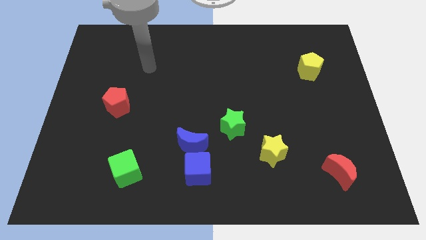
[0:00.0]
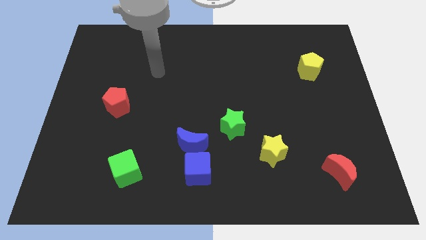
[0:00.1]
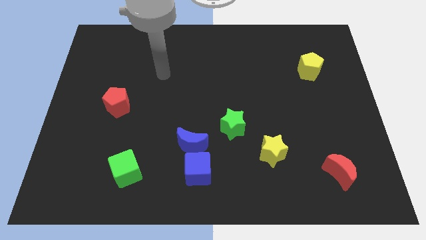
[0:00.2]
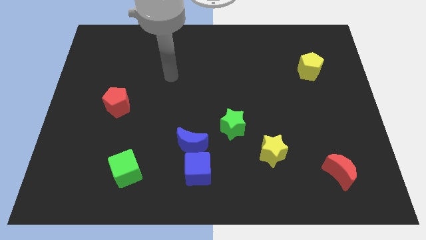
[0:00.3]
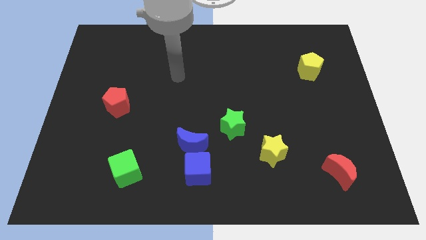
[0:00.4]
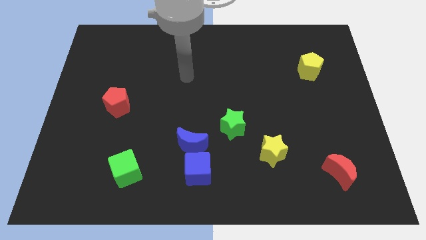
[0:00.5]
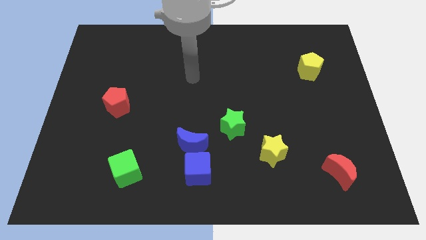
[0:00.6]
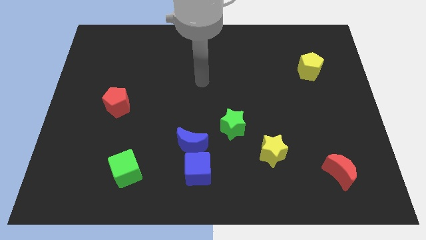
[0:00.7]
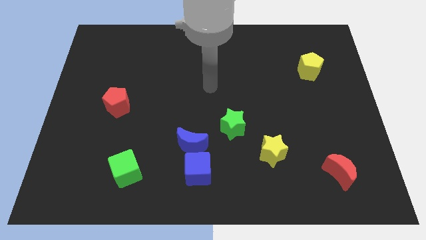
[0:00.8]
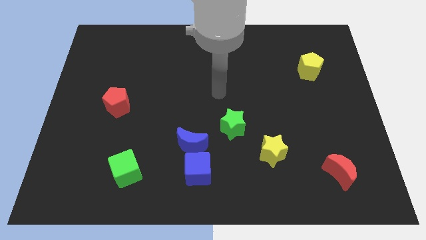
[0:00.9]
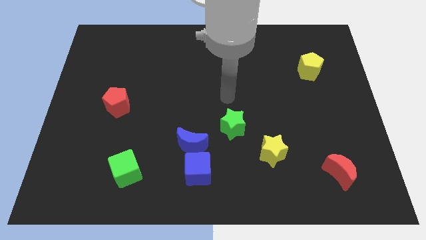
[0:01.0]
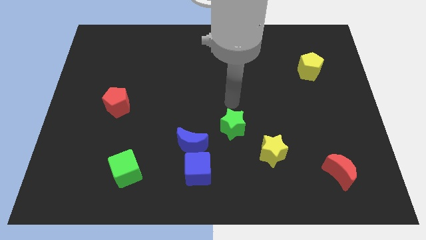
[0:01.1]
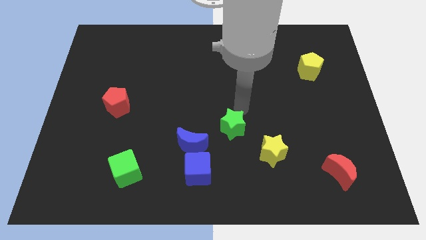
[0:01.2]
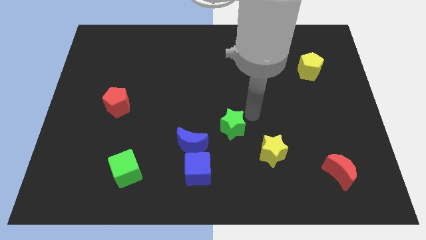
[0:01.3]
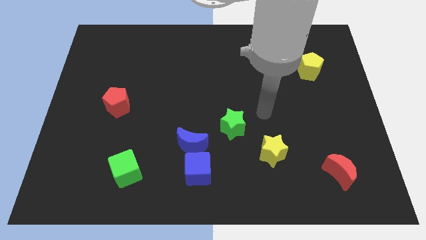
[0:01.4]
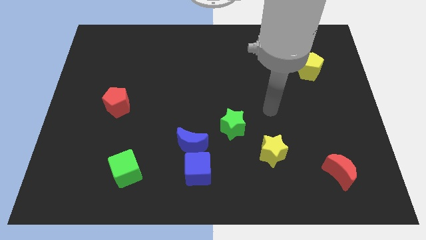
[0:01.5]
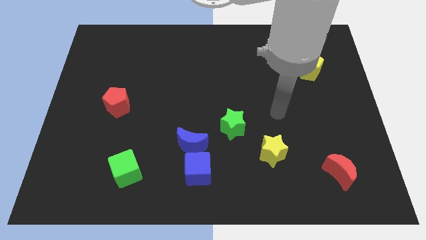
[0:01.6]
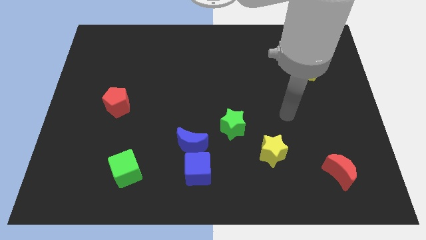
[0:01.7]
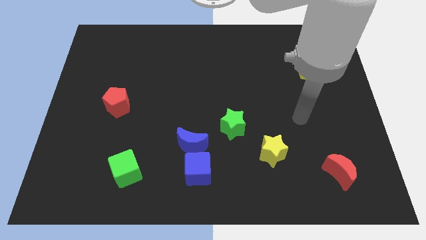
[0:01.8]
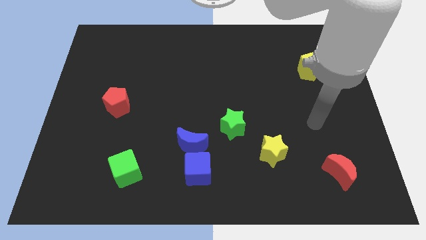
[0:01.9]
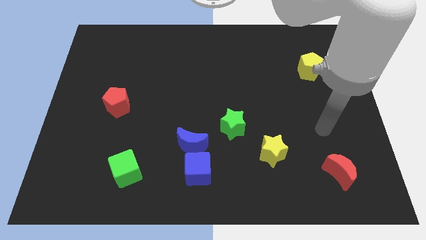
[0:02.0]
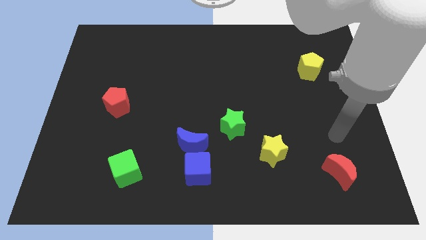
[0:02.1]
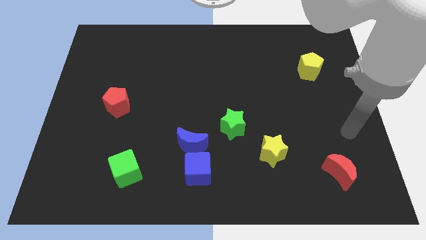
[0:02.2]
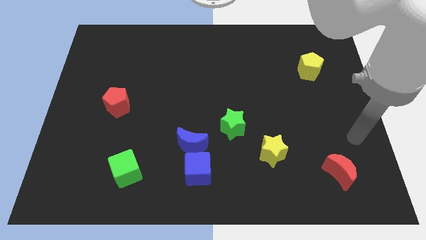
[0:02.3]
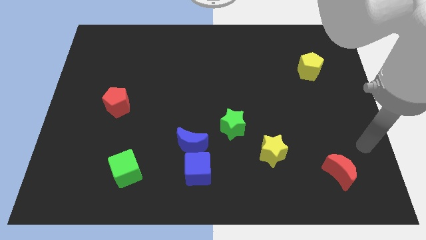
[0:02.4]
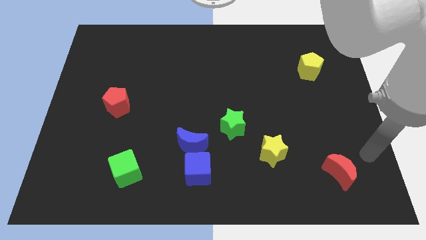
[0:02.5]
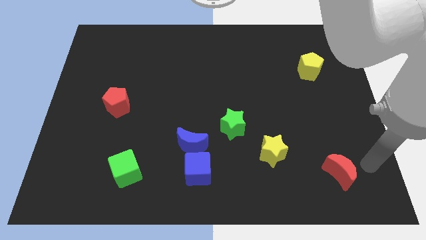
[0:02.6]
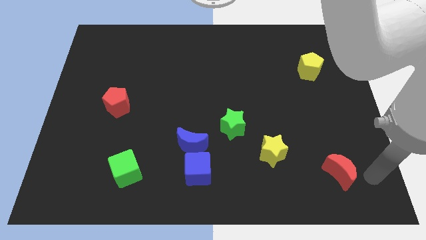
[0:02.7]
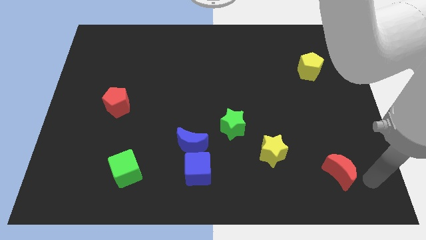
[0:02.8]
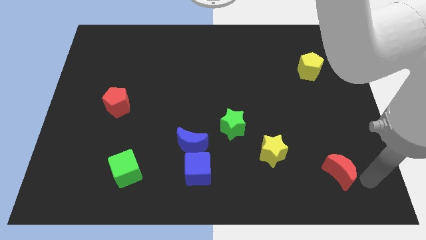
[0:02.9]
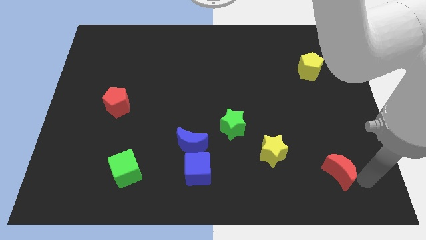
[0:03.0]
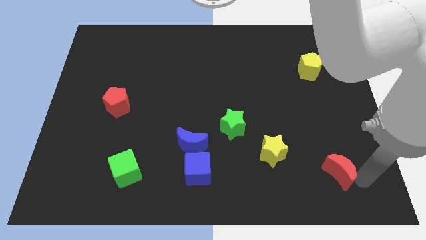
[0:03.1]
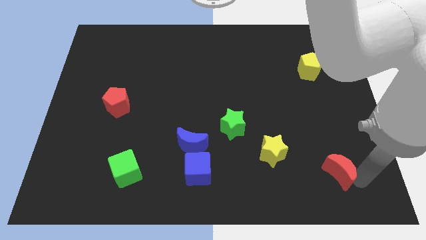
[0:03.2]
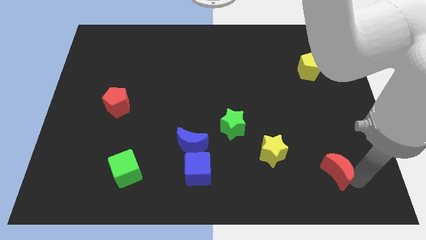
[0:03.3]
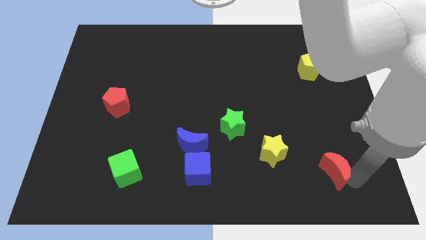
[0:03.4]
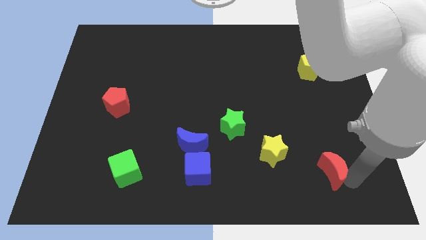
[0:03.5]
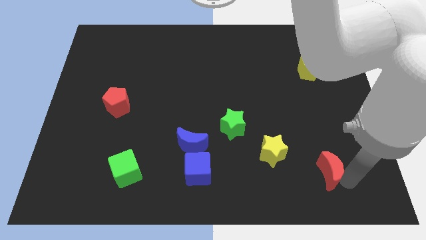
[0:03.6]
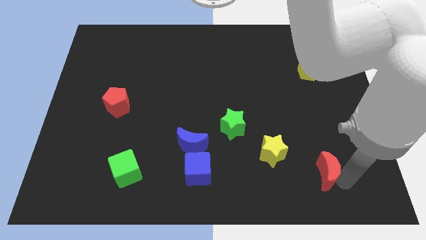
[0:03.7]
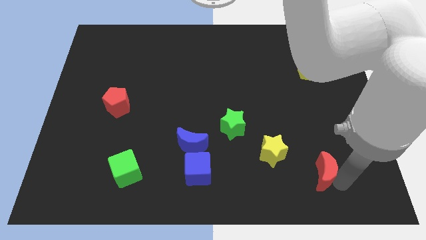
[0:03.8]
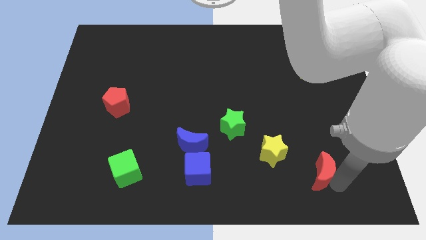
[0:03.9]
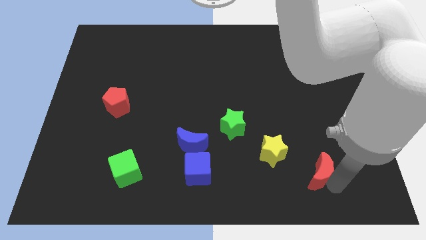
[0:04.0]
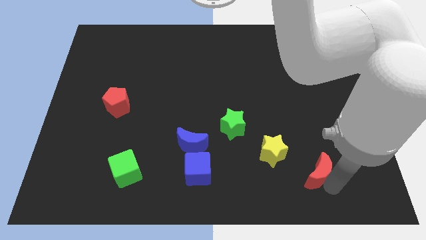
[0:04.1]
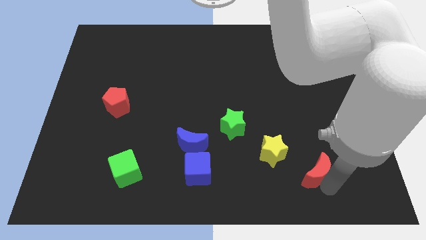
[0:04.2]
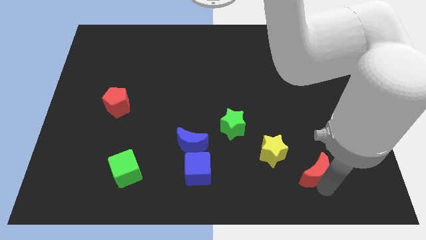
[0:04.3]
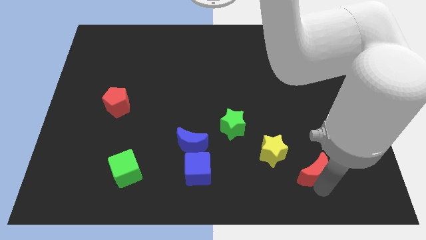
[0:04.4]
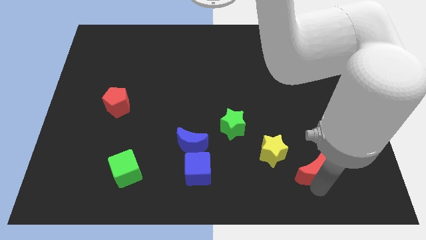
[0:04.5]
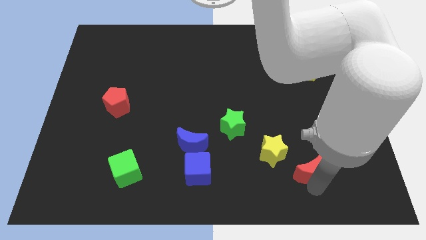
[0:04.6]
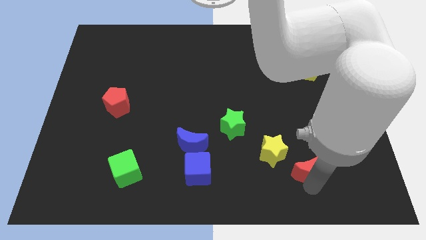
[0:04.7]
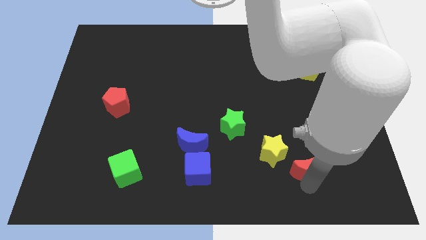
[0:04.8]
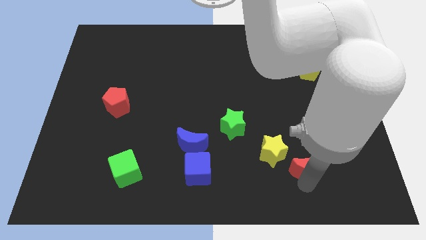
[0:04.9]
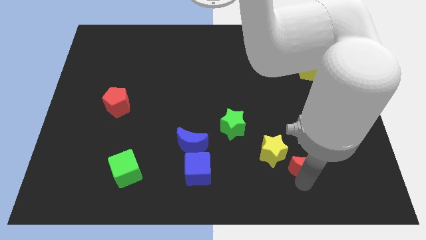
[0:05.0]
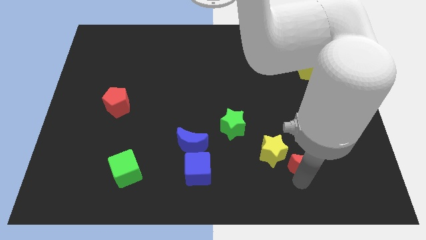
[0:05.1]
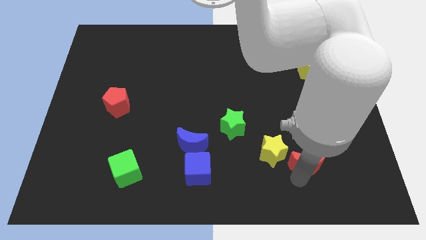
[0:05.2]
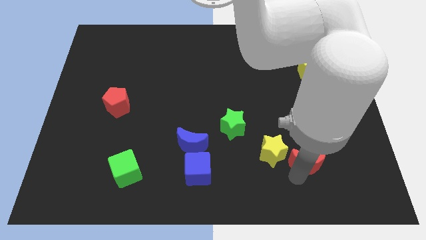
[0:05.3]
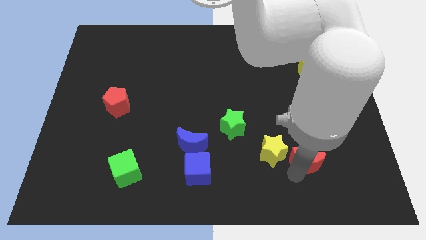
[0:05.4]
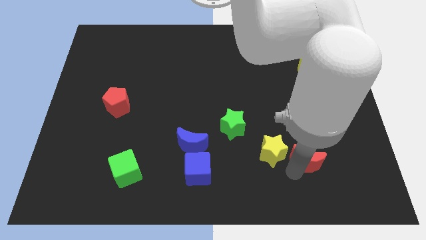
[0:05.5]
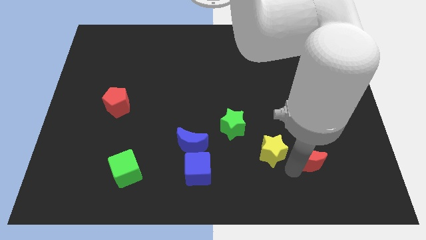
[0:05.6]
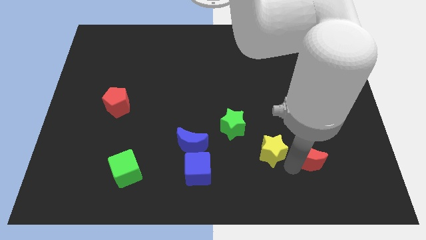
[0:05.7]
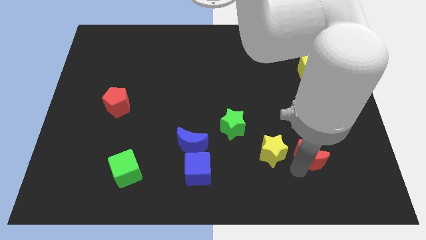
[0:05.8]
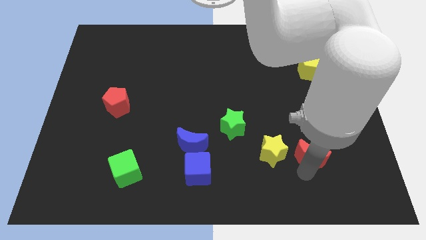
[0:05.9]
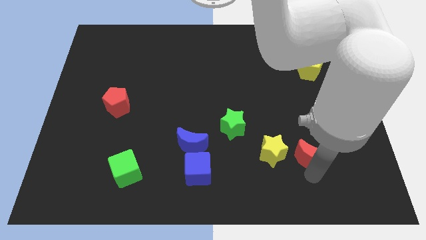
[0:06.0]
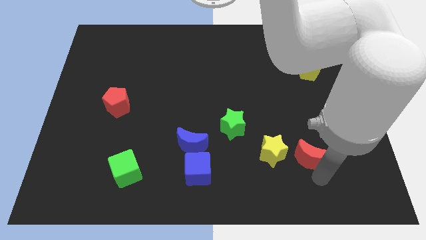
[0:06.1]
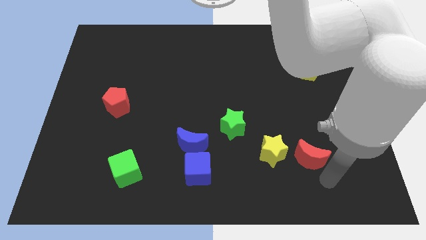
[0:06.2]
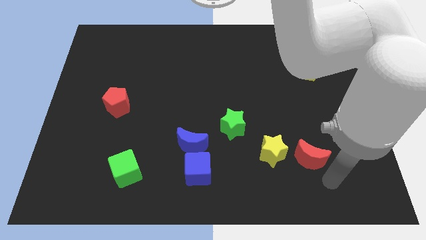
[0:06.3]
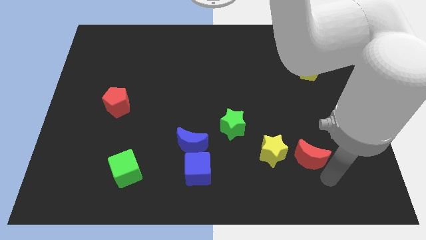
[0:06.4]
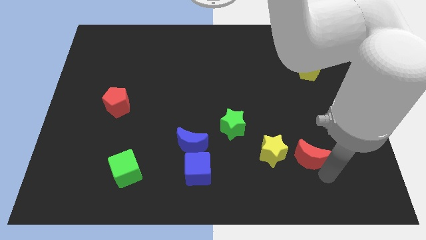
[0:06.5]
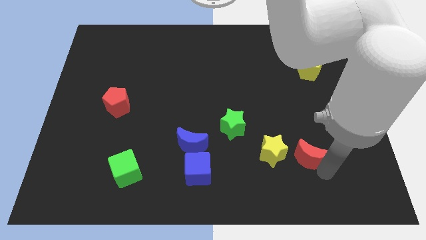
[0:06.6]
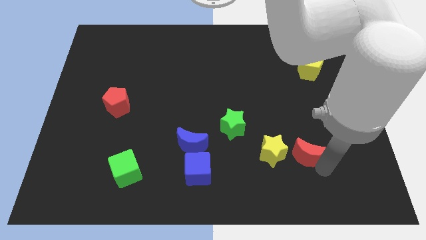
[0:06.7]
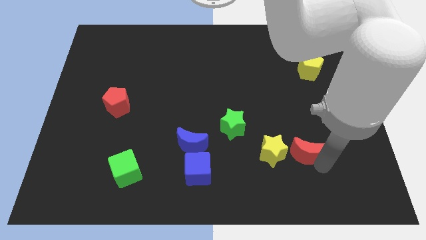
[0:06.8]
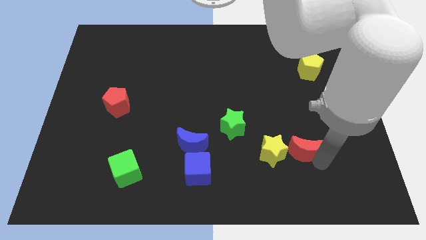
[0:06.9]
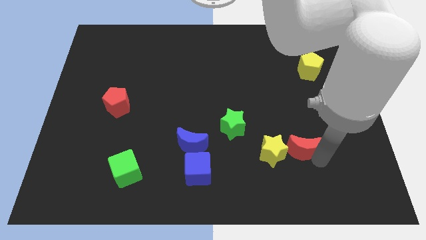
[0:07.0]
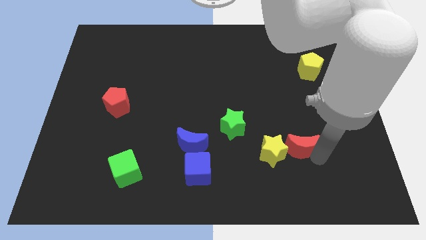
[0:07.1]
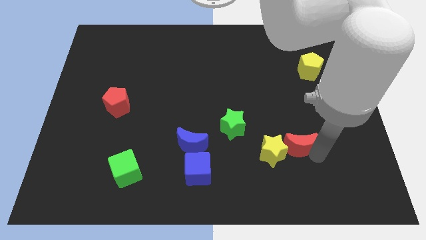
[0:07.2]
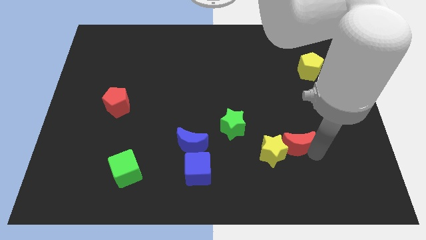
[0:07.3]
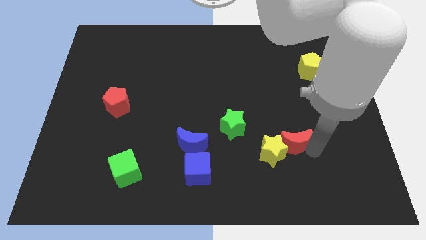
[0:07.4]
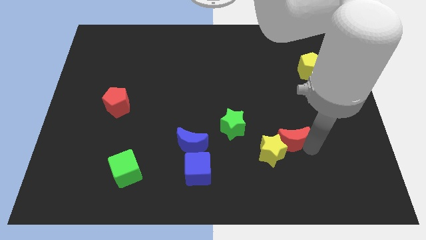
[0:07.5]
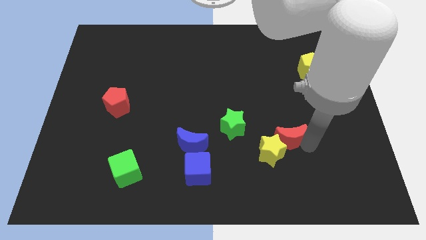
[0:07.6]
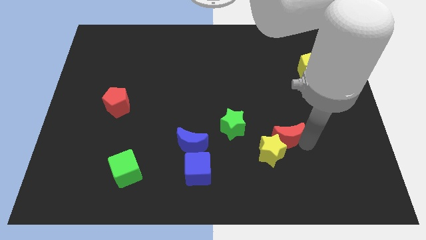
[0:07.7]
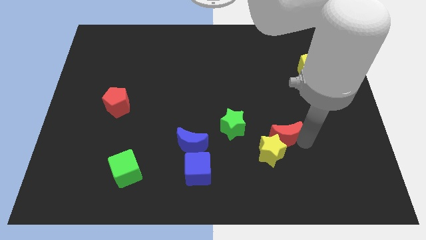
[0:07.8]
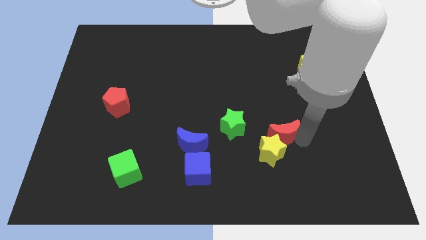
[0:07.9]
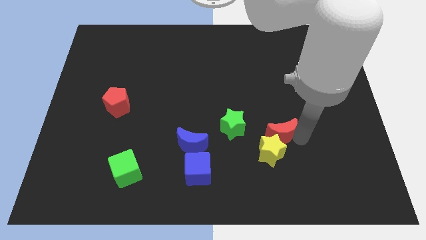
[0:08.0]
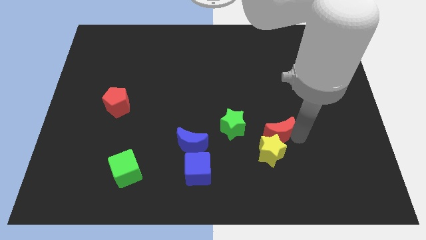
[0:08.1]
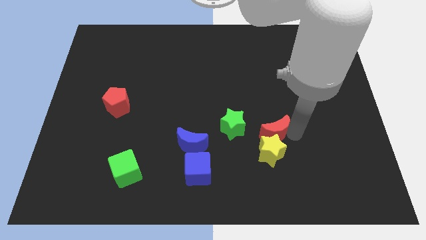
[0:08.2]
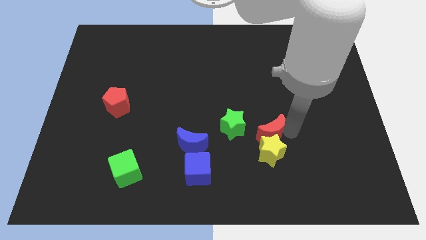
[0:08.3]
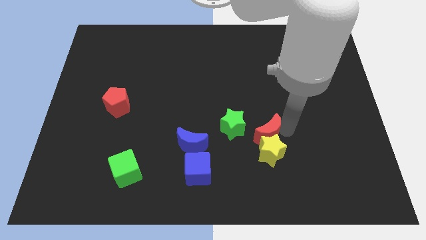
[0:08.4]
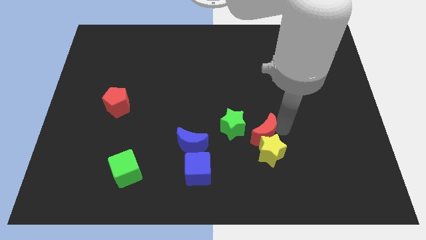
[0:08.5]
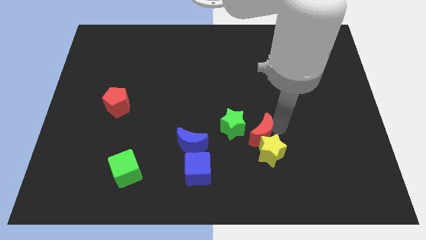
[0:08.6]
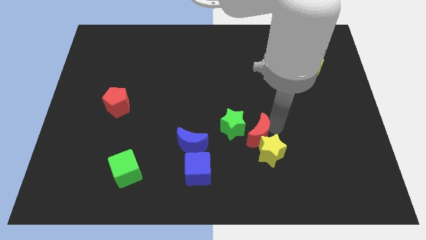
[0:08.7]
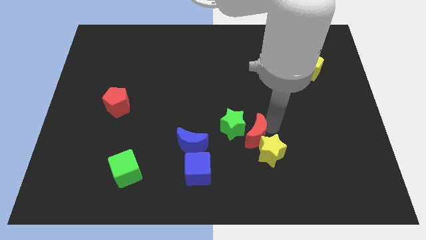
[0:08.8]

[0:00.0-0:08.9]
push the red moon towards the green star
